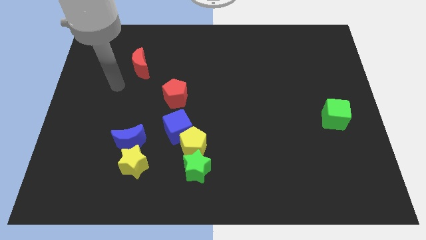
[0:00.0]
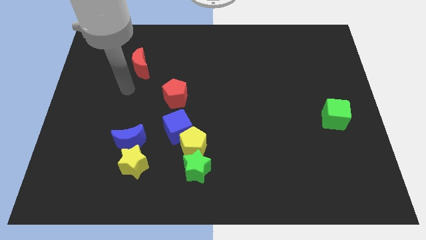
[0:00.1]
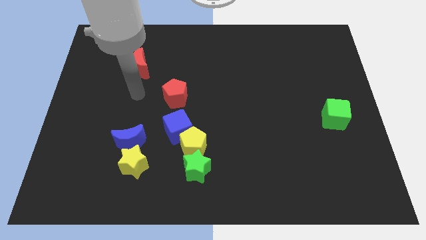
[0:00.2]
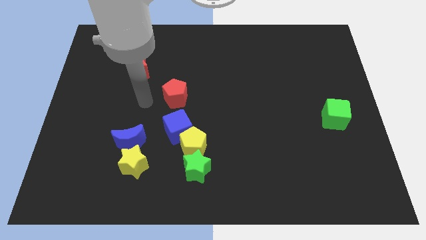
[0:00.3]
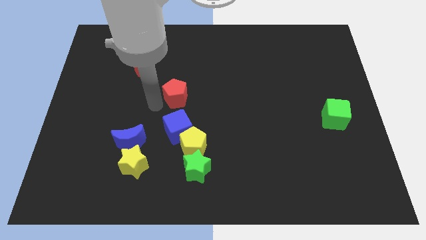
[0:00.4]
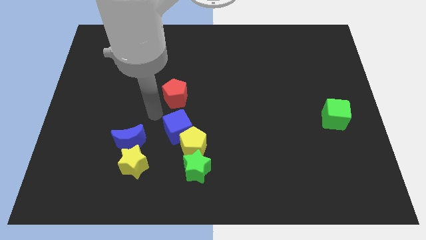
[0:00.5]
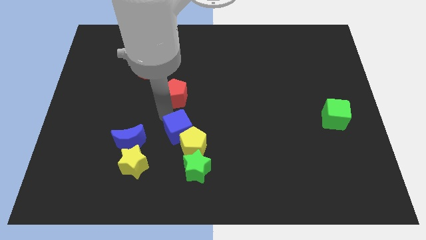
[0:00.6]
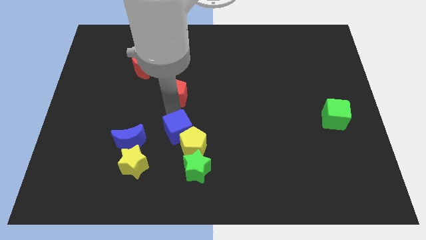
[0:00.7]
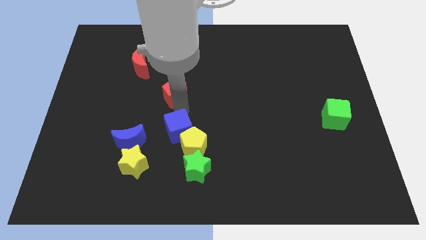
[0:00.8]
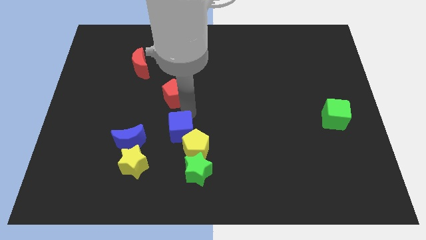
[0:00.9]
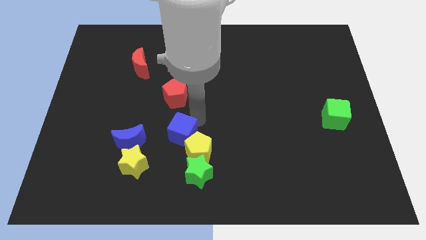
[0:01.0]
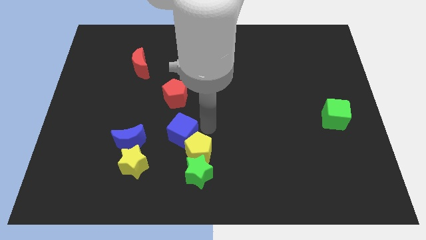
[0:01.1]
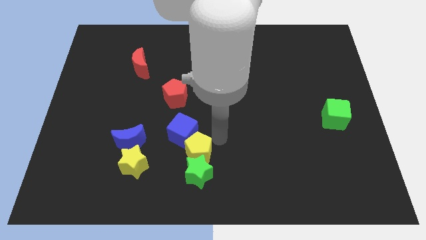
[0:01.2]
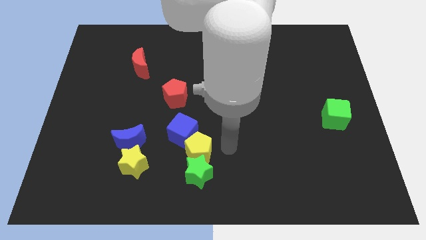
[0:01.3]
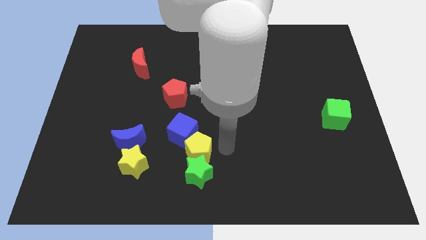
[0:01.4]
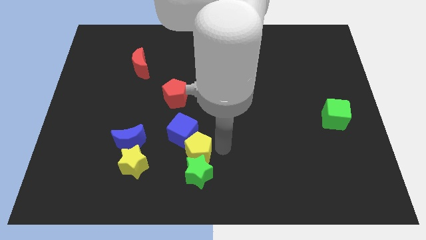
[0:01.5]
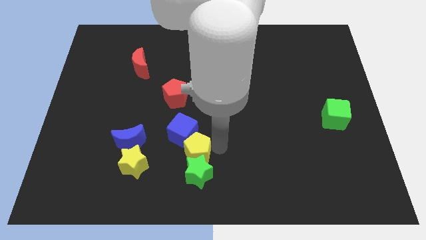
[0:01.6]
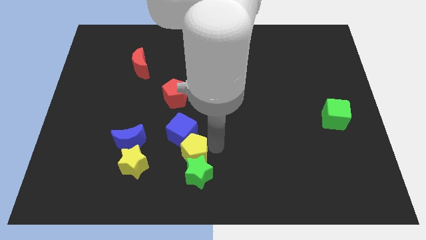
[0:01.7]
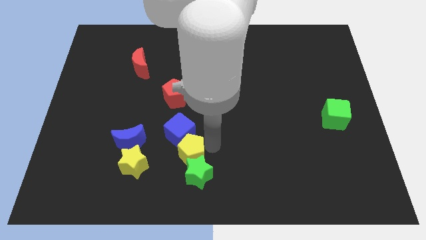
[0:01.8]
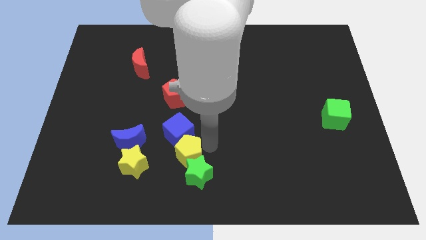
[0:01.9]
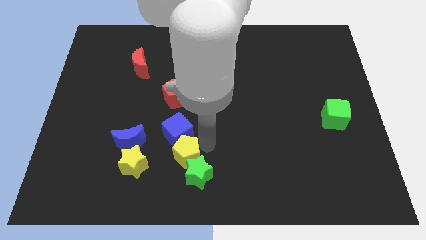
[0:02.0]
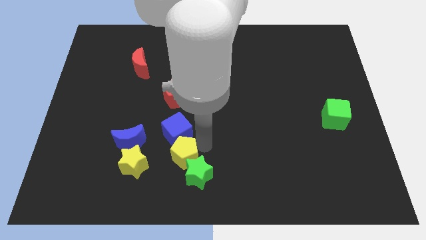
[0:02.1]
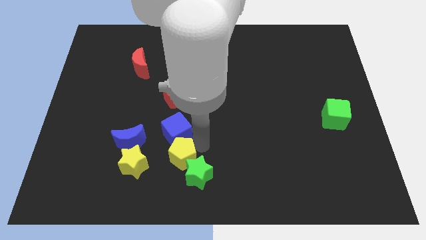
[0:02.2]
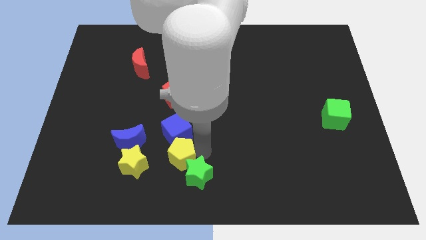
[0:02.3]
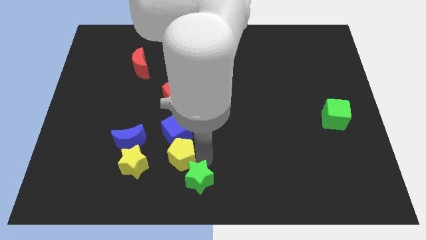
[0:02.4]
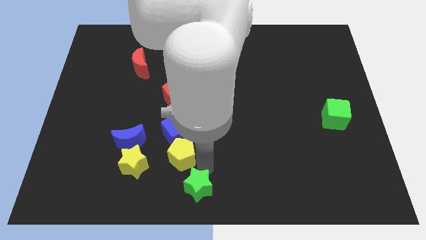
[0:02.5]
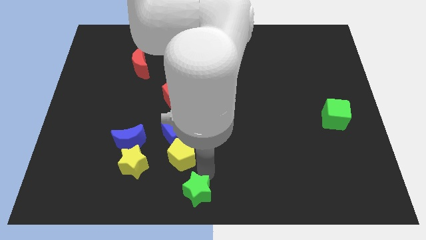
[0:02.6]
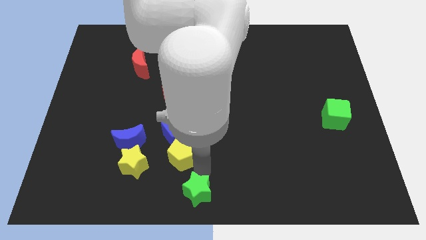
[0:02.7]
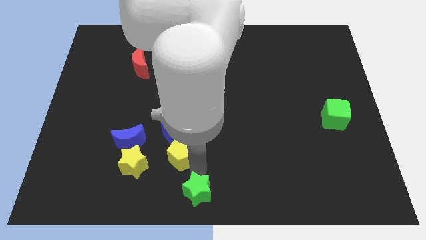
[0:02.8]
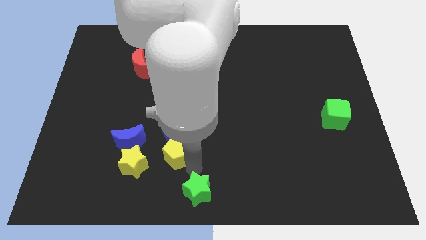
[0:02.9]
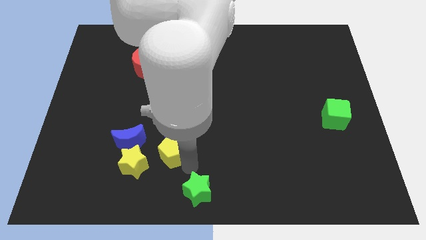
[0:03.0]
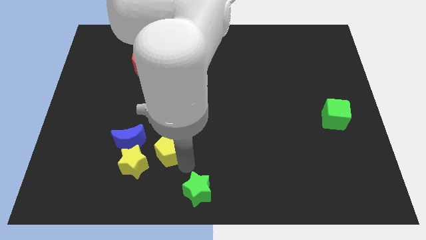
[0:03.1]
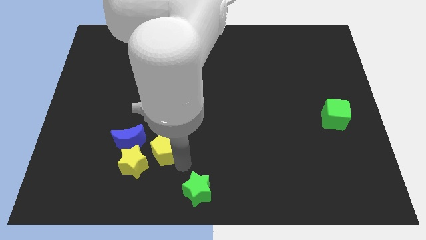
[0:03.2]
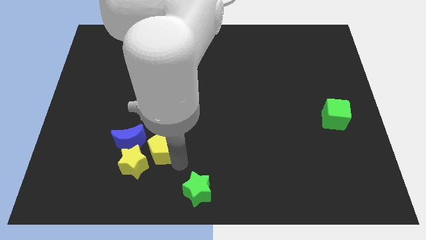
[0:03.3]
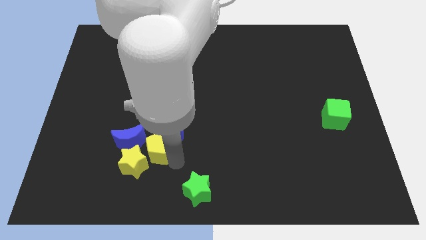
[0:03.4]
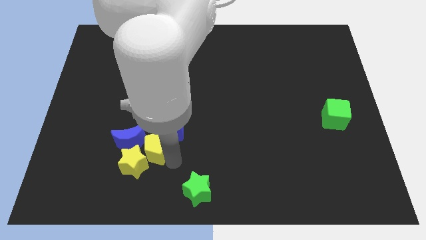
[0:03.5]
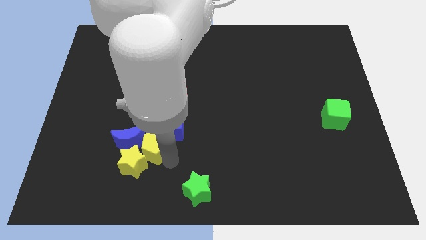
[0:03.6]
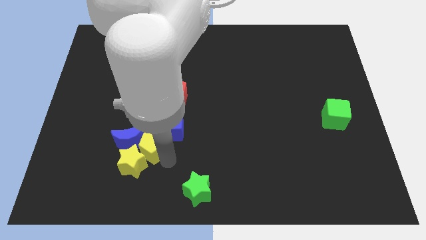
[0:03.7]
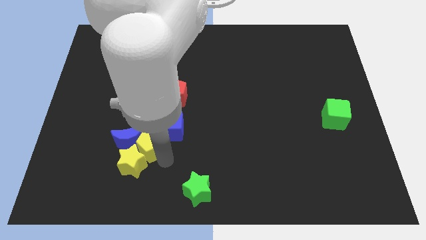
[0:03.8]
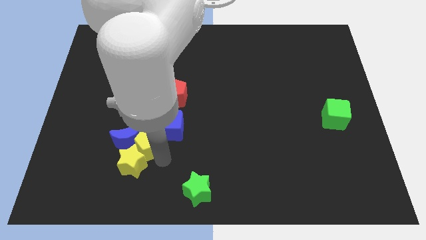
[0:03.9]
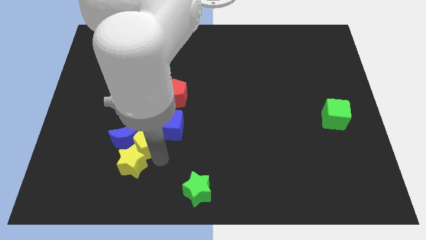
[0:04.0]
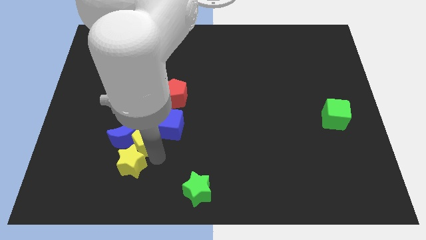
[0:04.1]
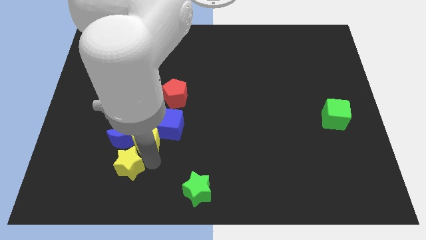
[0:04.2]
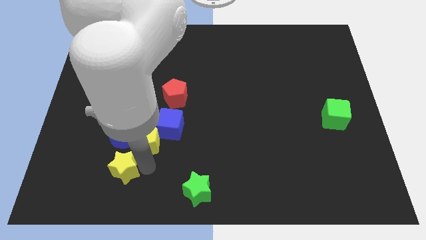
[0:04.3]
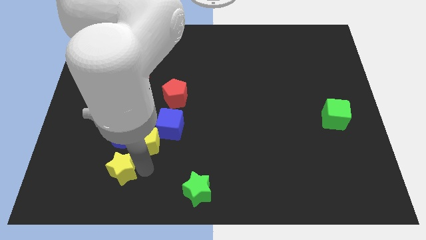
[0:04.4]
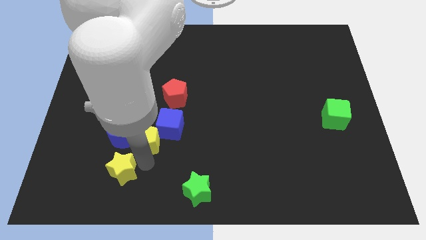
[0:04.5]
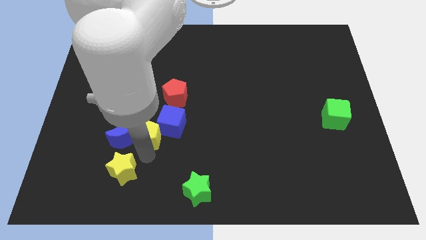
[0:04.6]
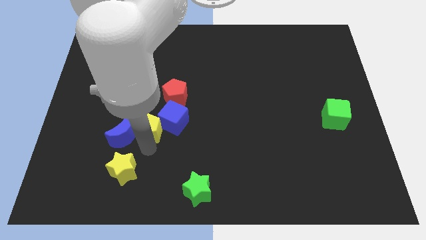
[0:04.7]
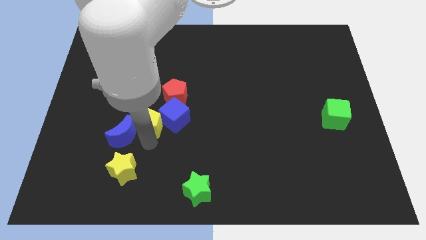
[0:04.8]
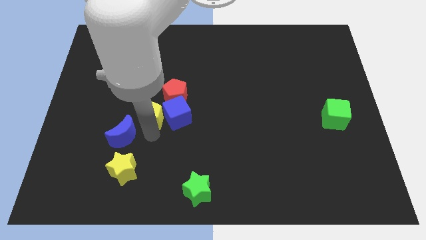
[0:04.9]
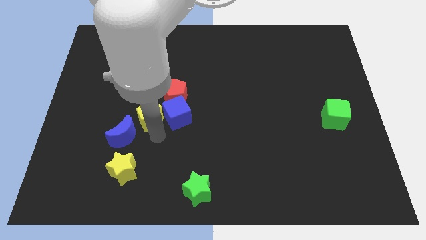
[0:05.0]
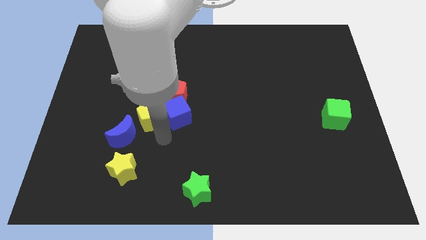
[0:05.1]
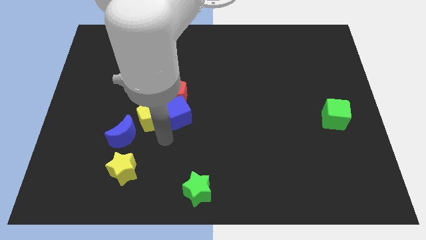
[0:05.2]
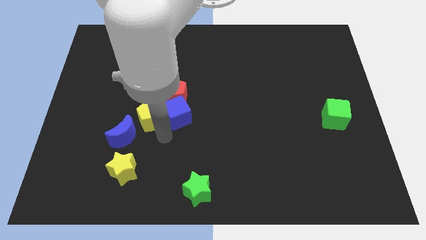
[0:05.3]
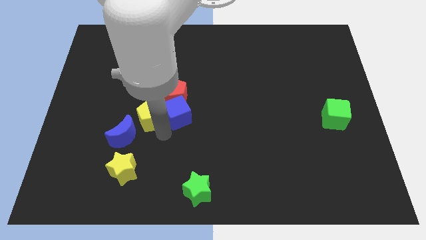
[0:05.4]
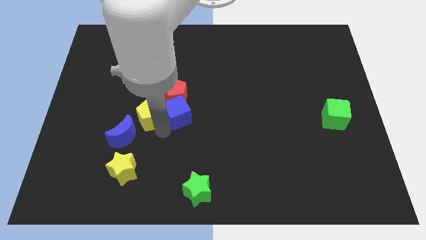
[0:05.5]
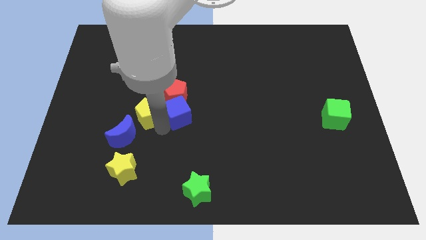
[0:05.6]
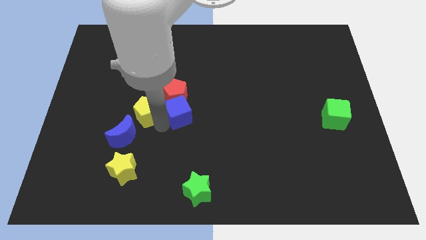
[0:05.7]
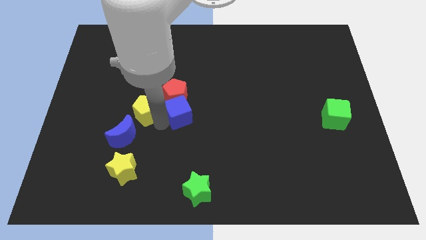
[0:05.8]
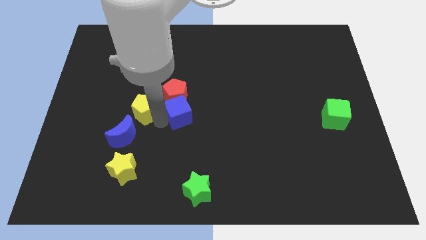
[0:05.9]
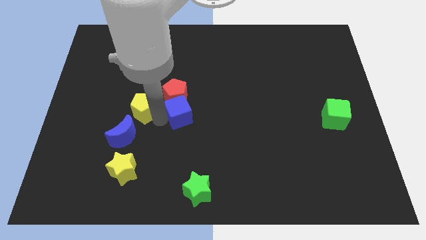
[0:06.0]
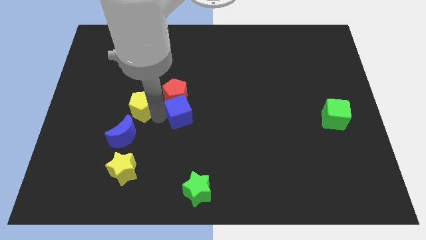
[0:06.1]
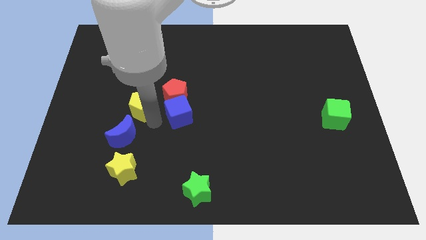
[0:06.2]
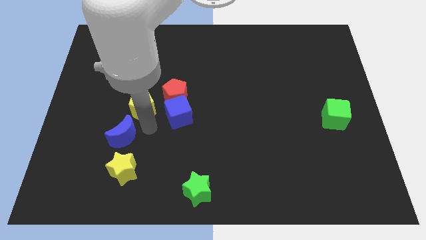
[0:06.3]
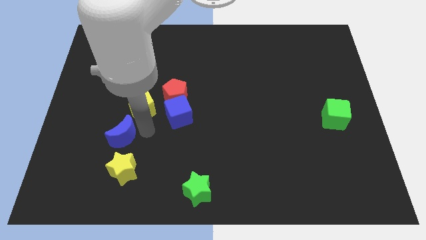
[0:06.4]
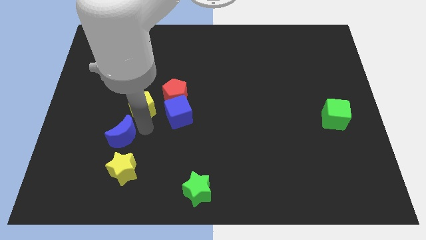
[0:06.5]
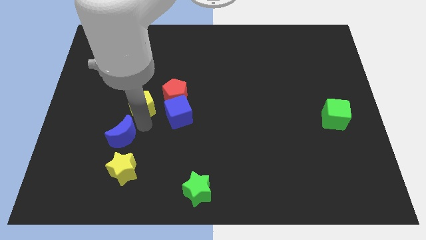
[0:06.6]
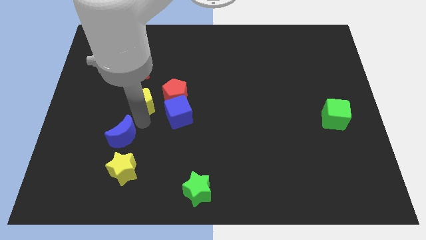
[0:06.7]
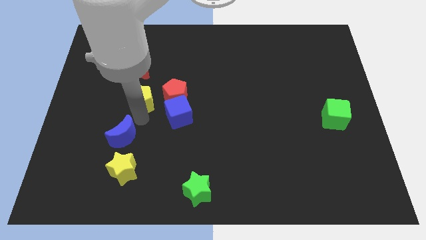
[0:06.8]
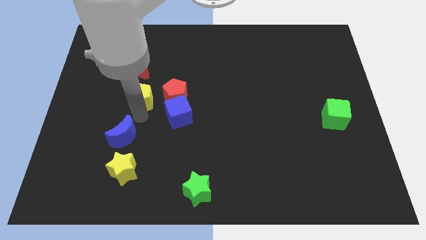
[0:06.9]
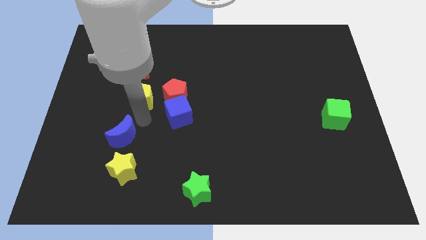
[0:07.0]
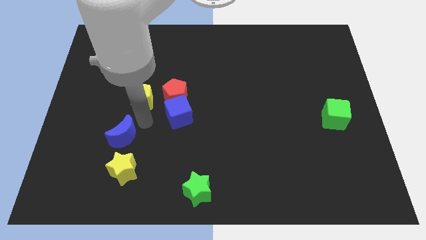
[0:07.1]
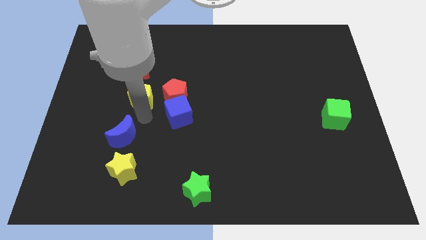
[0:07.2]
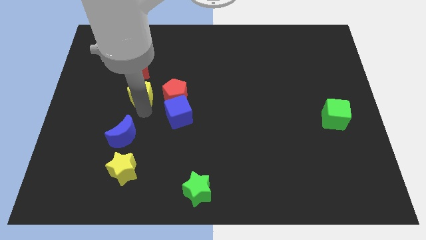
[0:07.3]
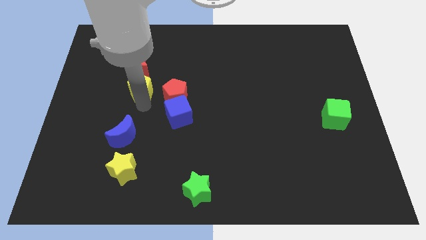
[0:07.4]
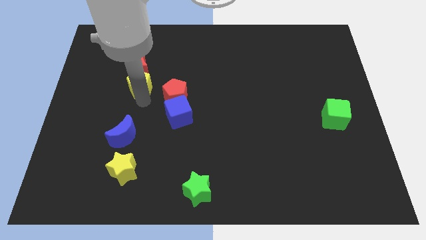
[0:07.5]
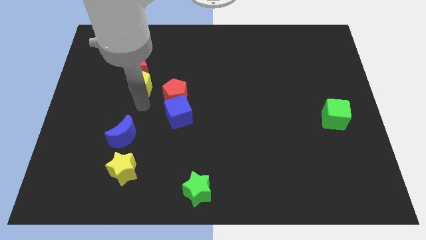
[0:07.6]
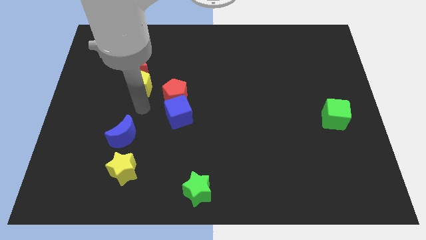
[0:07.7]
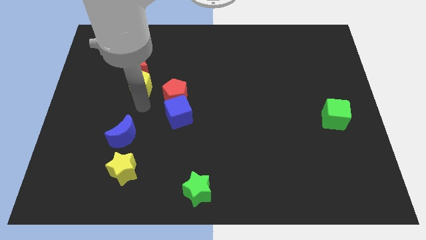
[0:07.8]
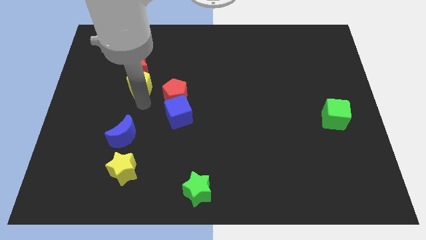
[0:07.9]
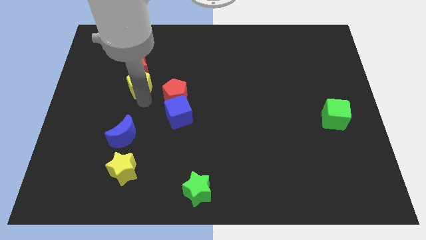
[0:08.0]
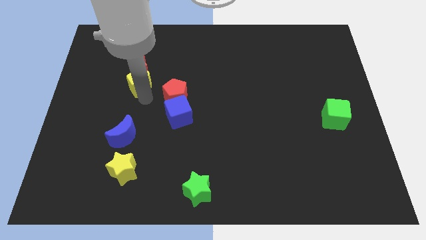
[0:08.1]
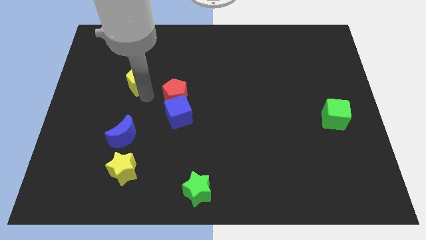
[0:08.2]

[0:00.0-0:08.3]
slide the yellow pentagon close to the red moon
